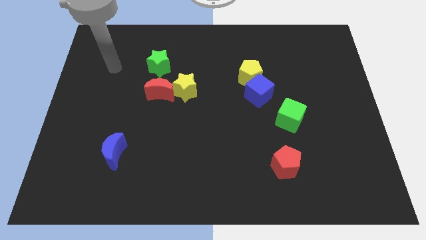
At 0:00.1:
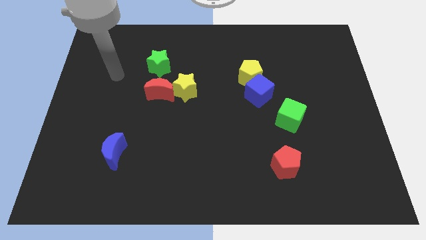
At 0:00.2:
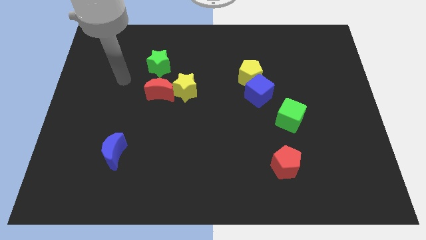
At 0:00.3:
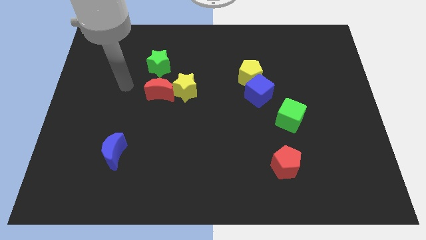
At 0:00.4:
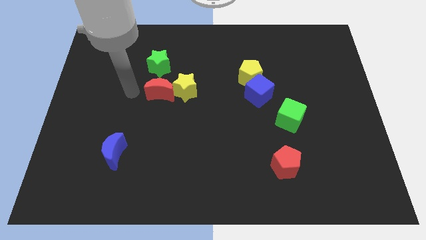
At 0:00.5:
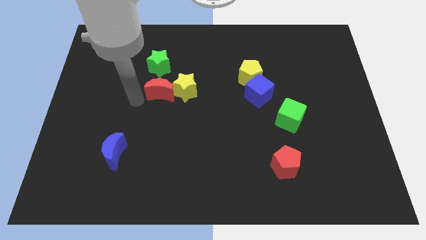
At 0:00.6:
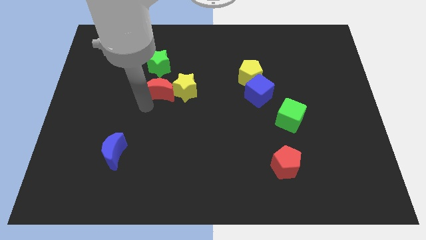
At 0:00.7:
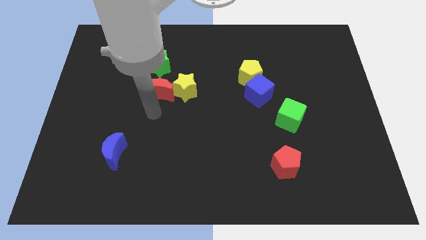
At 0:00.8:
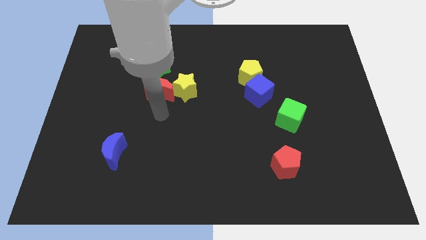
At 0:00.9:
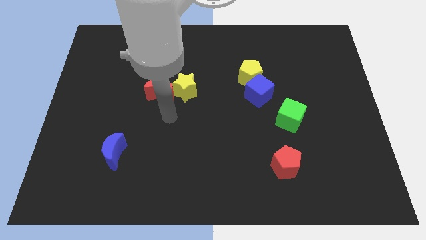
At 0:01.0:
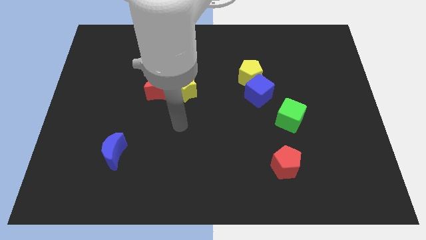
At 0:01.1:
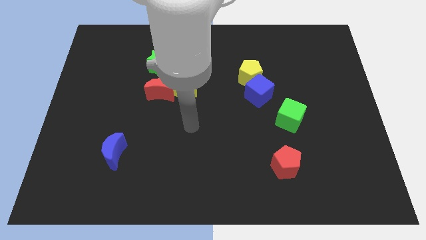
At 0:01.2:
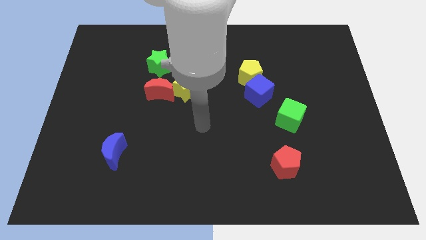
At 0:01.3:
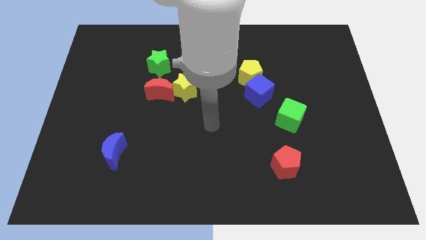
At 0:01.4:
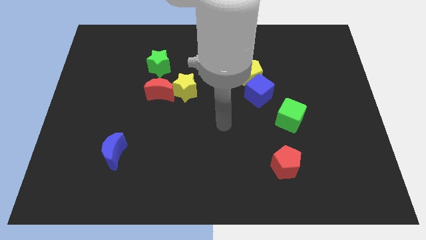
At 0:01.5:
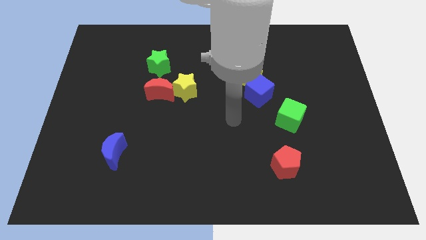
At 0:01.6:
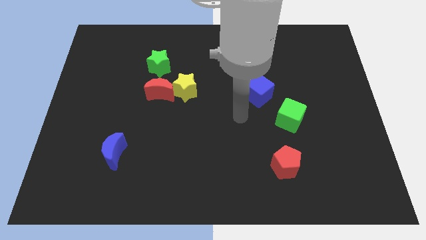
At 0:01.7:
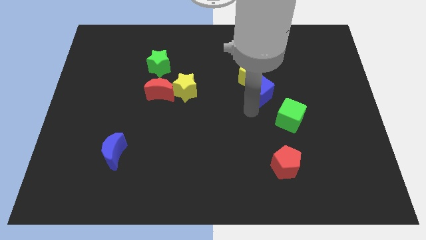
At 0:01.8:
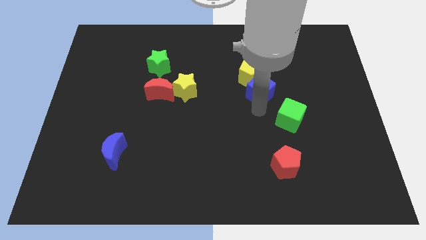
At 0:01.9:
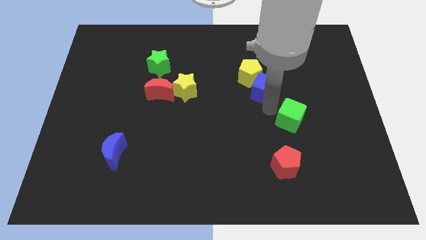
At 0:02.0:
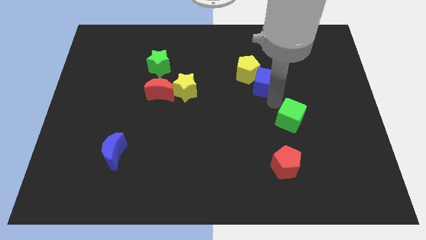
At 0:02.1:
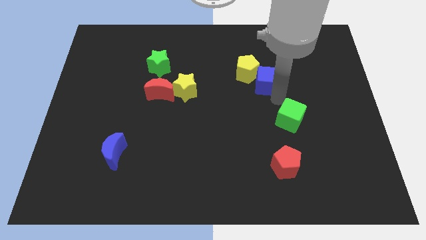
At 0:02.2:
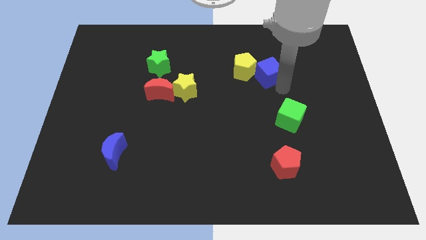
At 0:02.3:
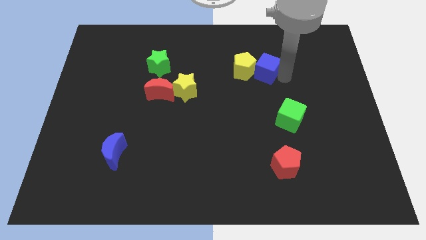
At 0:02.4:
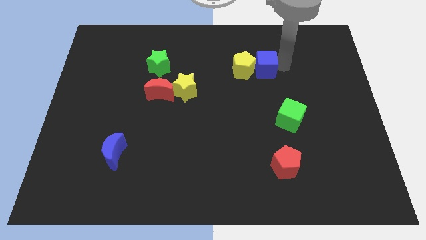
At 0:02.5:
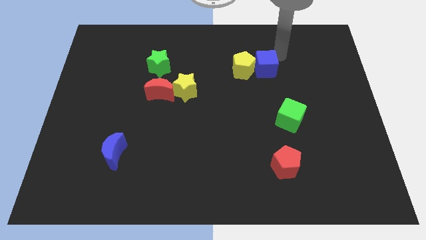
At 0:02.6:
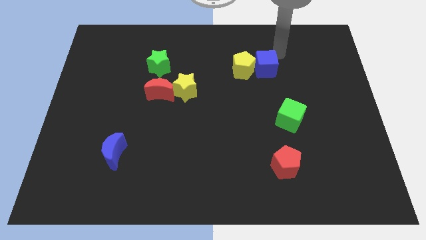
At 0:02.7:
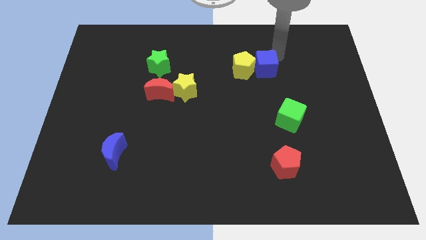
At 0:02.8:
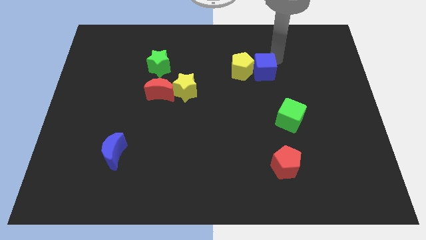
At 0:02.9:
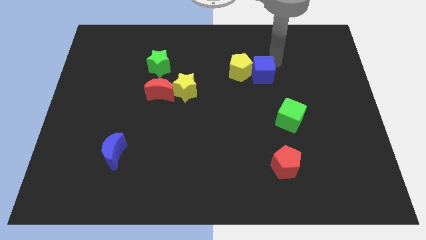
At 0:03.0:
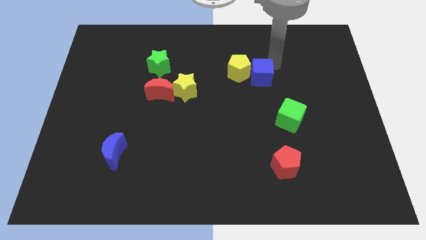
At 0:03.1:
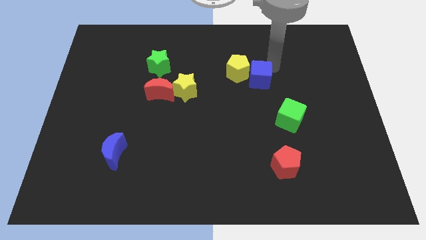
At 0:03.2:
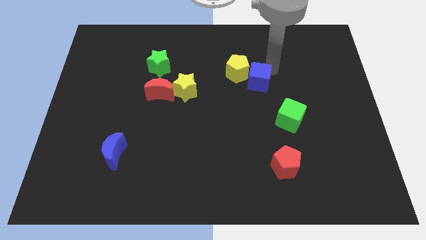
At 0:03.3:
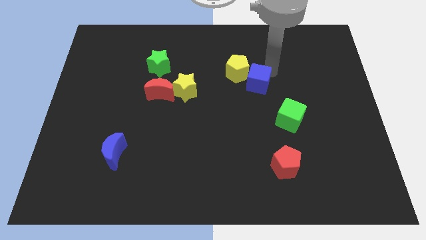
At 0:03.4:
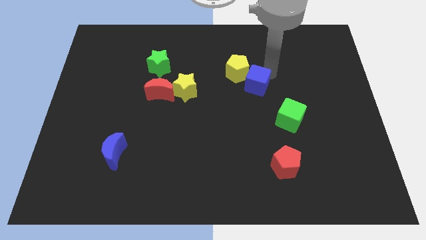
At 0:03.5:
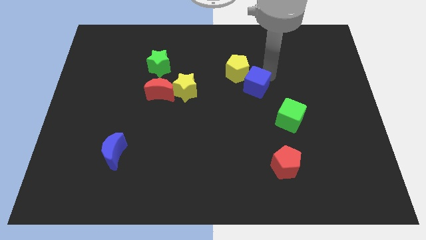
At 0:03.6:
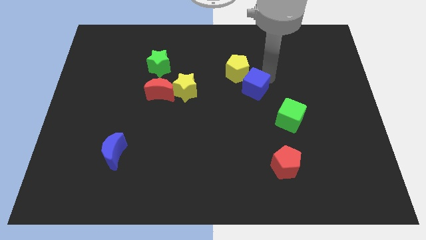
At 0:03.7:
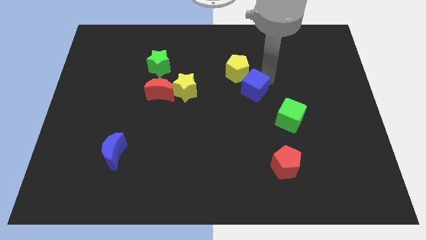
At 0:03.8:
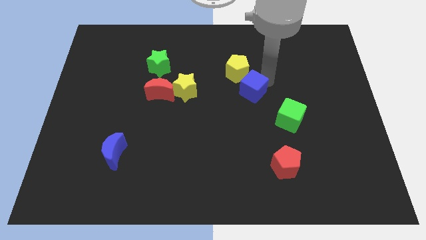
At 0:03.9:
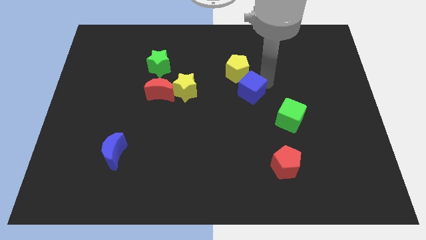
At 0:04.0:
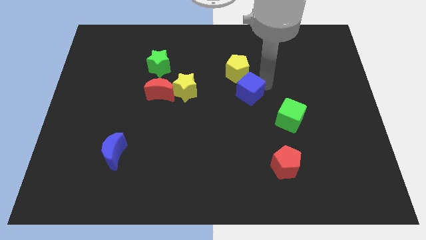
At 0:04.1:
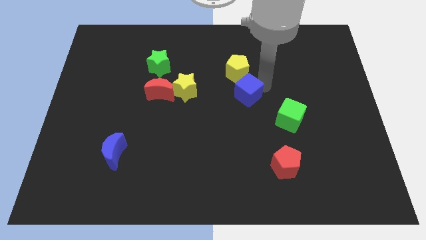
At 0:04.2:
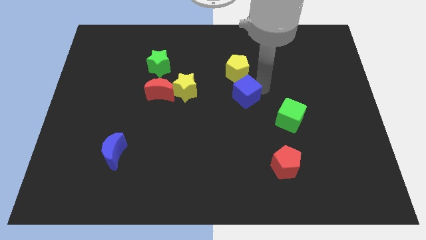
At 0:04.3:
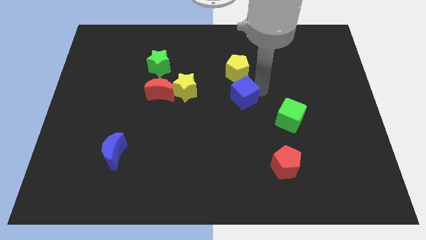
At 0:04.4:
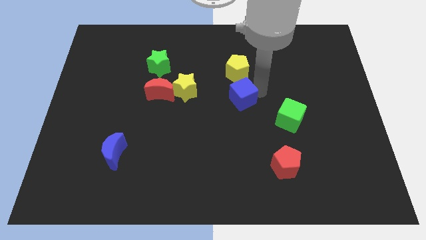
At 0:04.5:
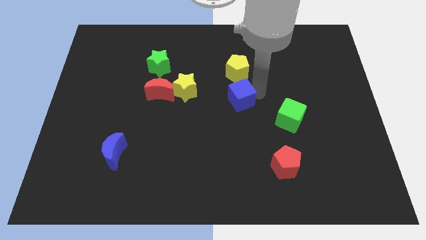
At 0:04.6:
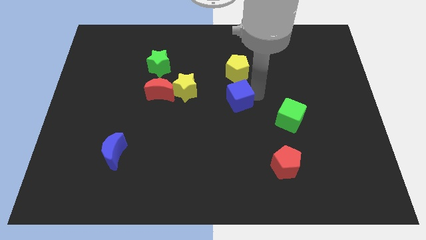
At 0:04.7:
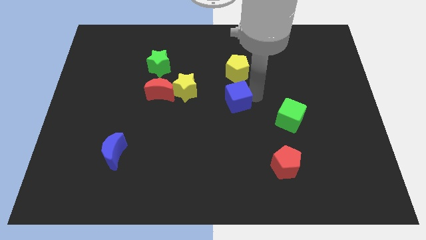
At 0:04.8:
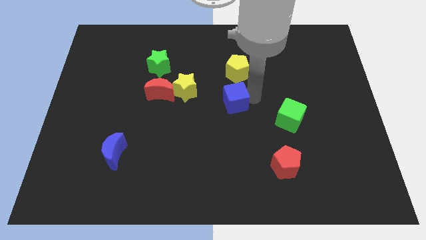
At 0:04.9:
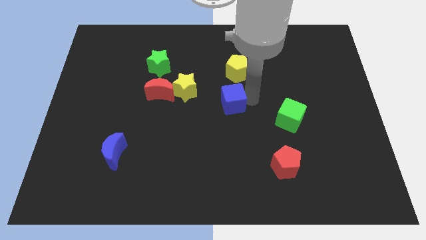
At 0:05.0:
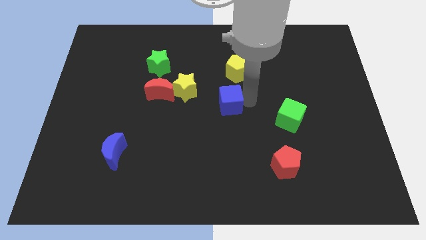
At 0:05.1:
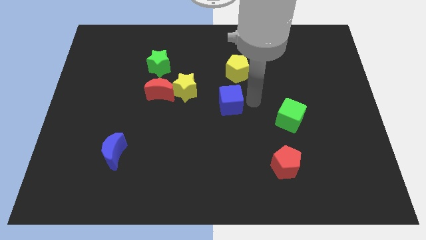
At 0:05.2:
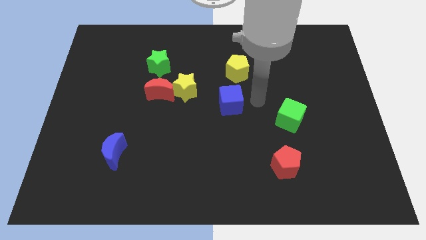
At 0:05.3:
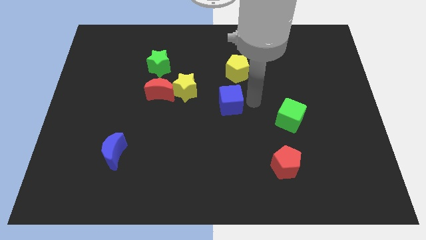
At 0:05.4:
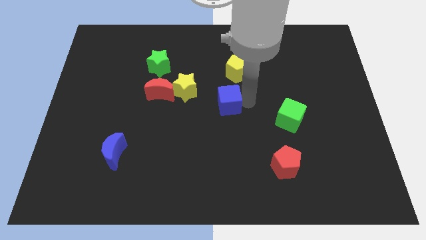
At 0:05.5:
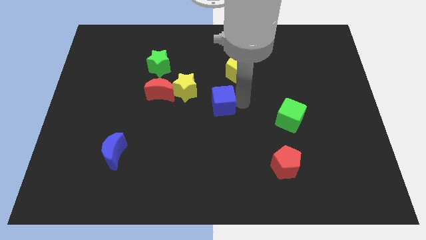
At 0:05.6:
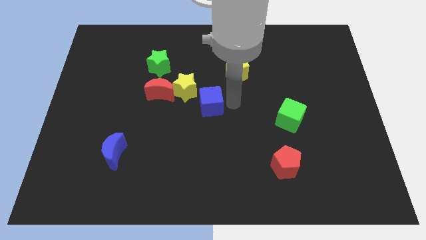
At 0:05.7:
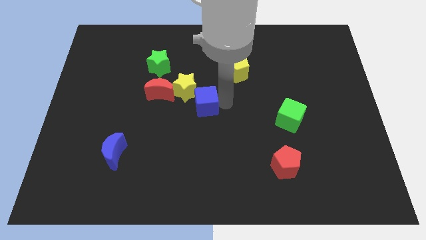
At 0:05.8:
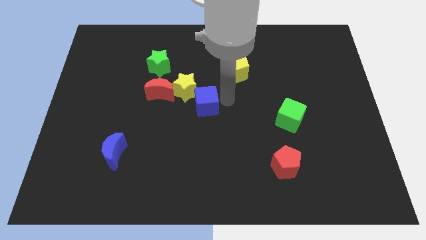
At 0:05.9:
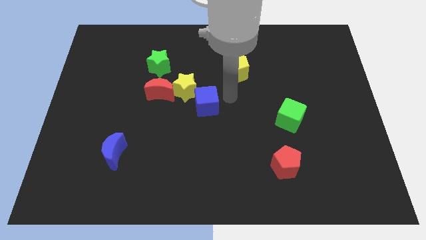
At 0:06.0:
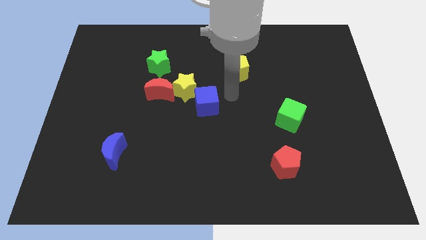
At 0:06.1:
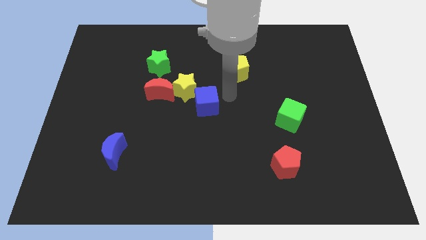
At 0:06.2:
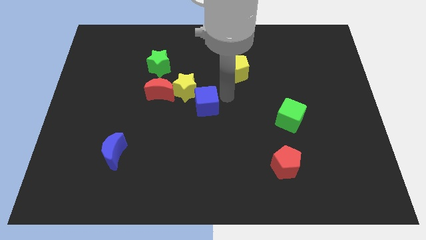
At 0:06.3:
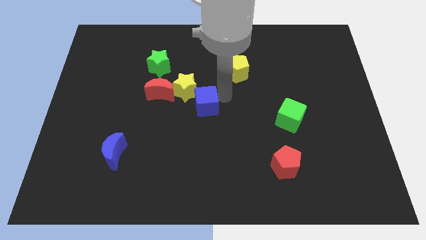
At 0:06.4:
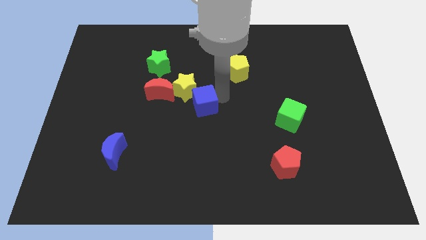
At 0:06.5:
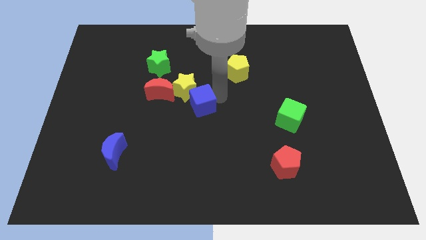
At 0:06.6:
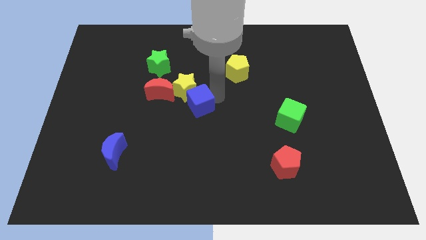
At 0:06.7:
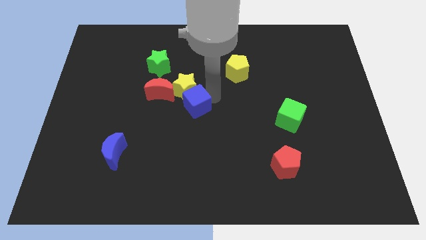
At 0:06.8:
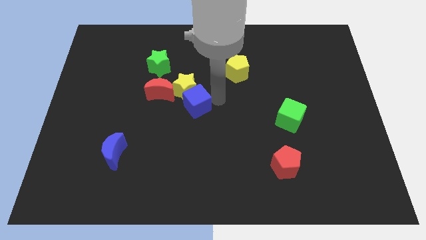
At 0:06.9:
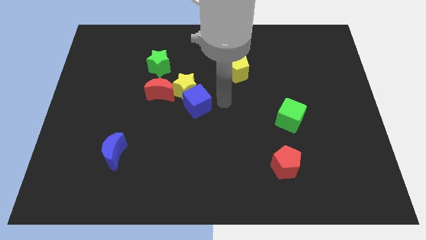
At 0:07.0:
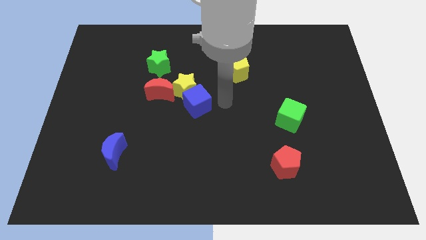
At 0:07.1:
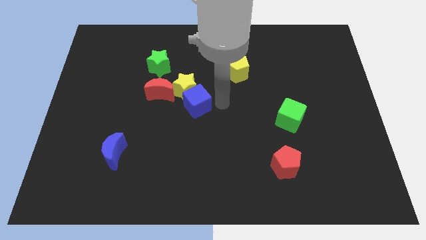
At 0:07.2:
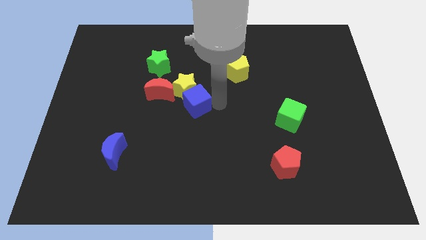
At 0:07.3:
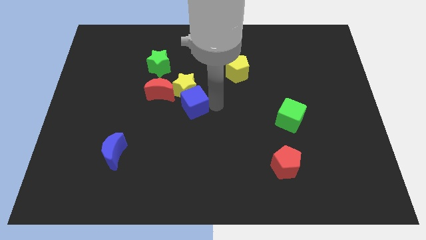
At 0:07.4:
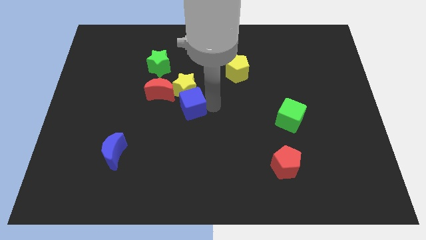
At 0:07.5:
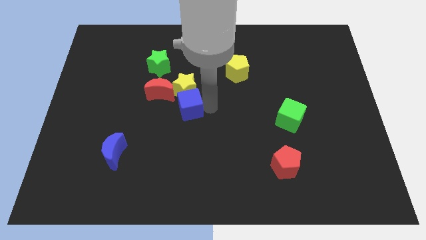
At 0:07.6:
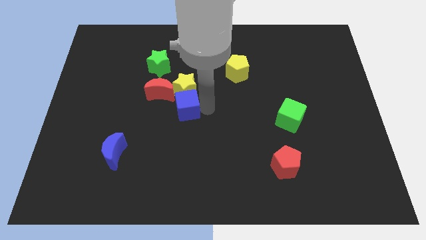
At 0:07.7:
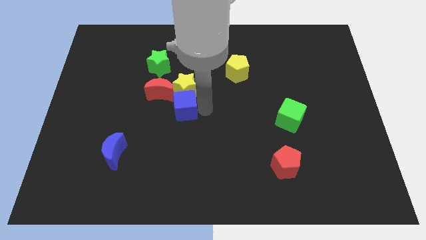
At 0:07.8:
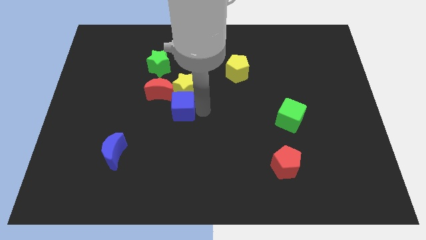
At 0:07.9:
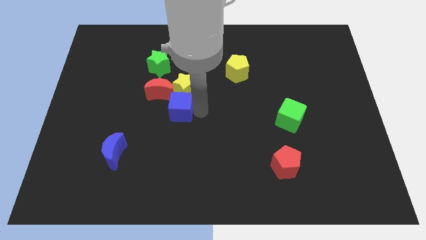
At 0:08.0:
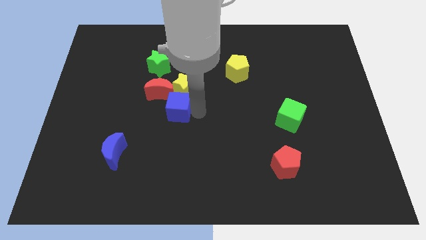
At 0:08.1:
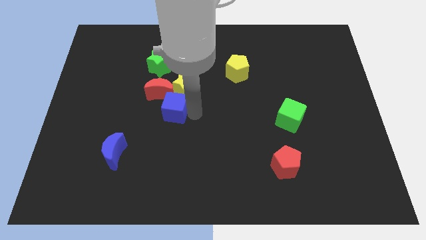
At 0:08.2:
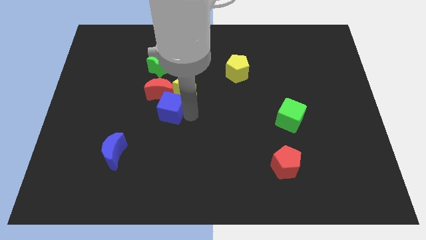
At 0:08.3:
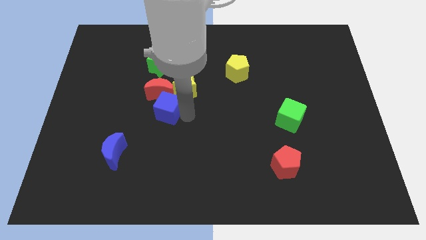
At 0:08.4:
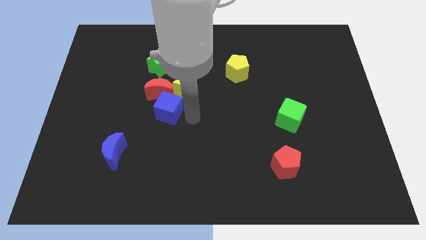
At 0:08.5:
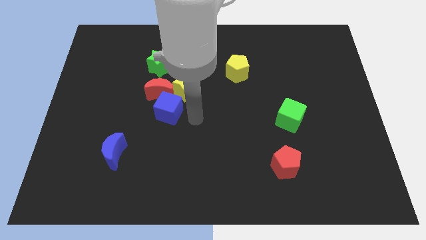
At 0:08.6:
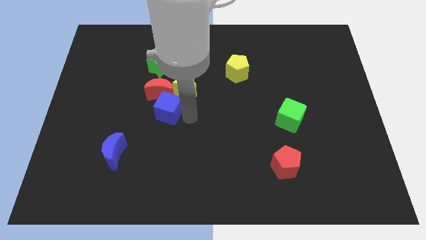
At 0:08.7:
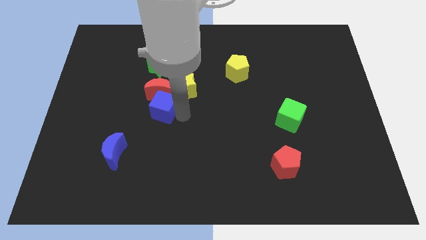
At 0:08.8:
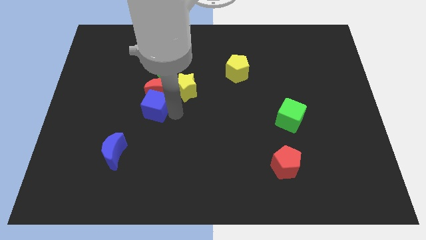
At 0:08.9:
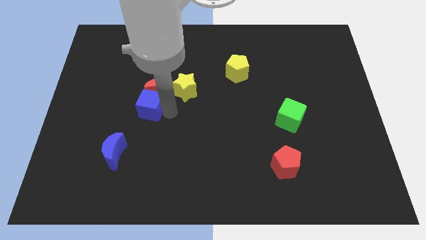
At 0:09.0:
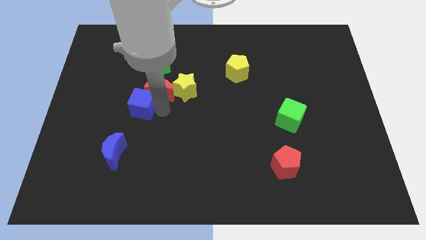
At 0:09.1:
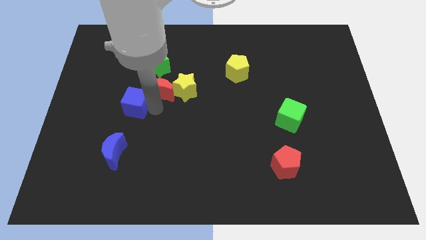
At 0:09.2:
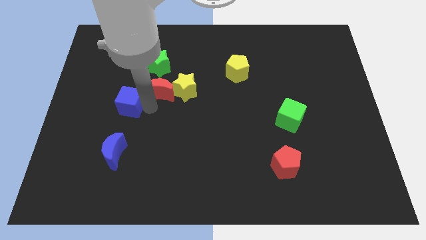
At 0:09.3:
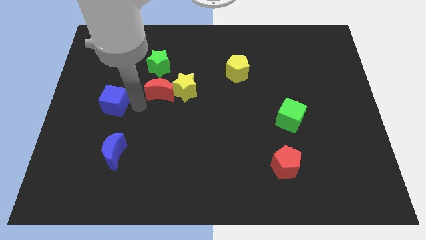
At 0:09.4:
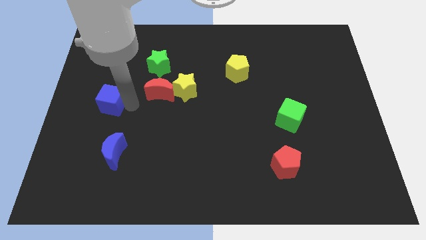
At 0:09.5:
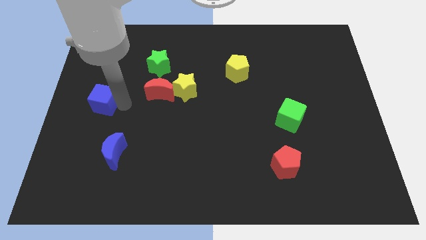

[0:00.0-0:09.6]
slide the blue cube to the center left
